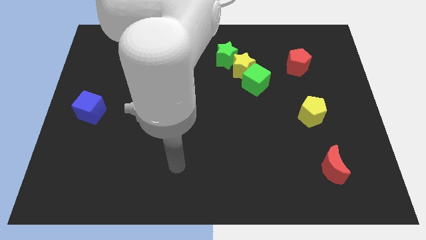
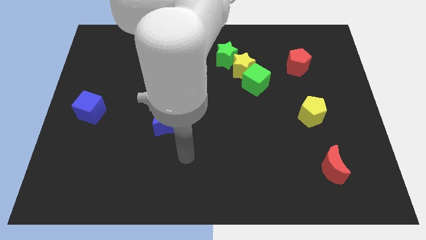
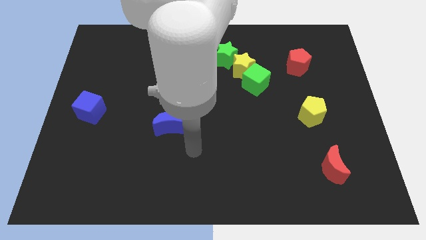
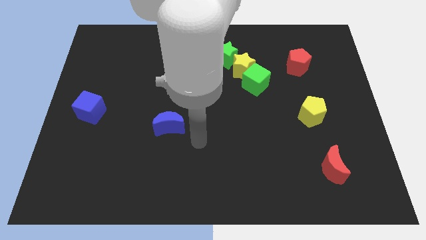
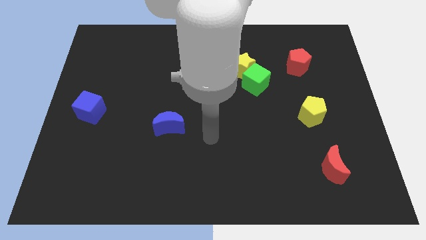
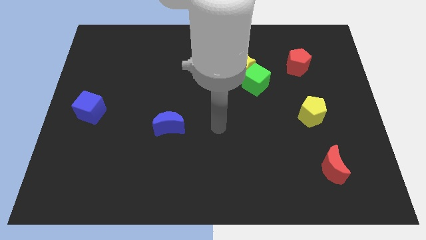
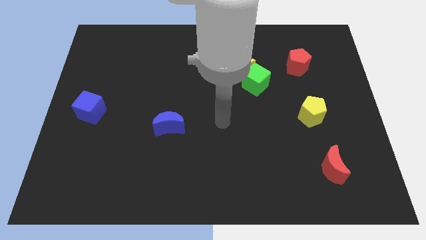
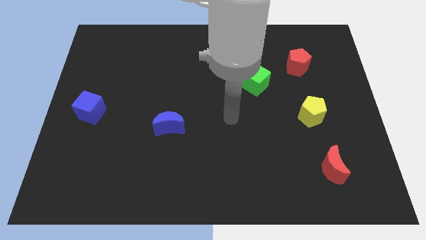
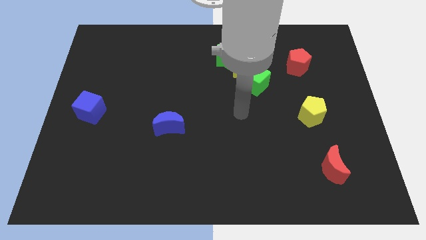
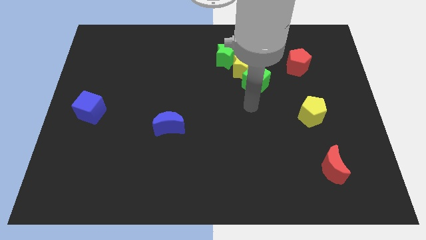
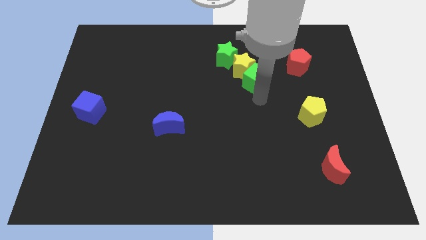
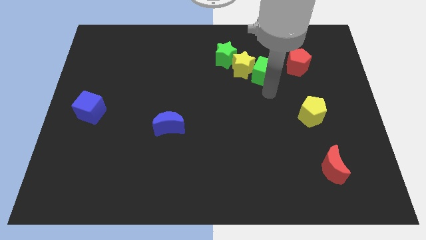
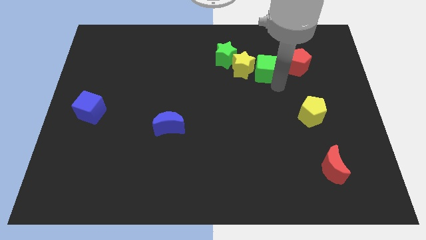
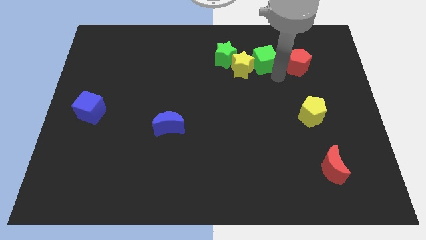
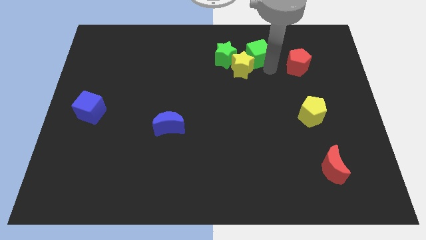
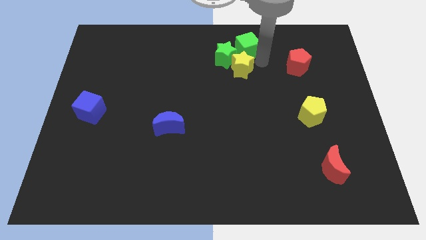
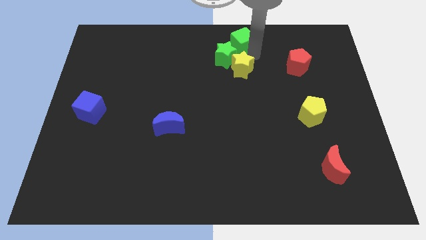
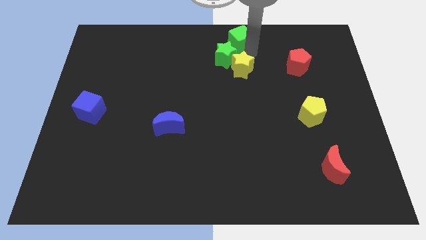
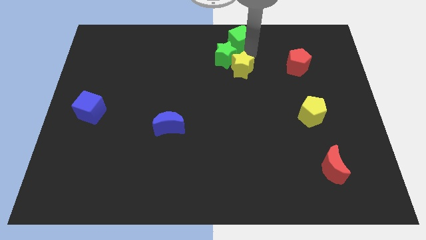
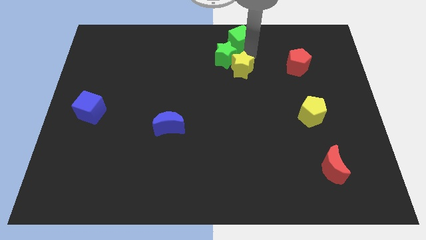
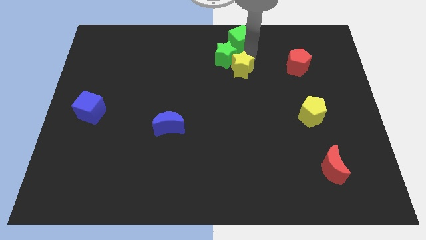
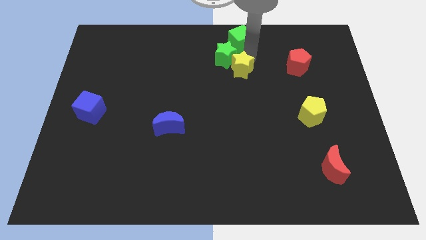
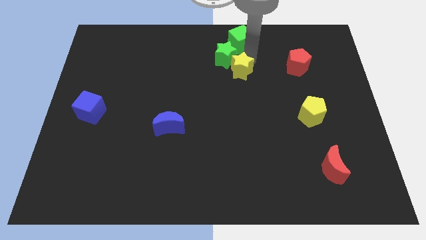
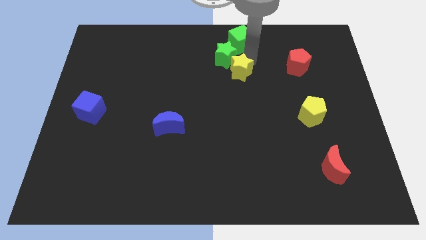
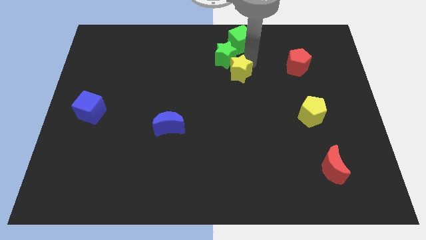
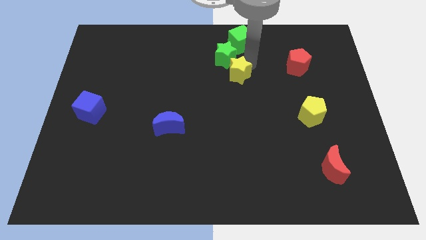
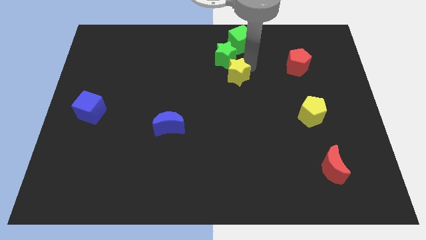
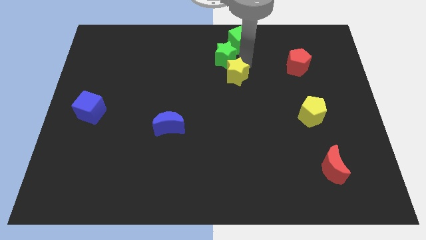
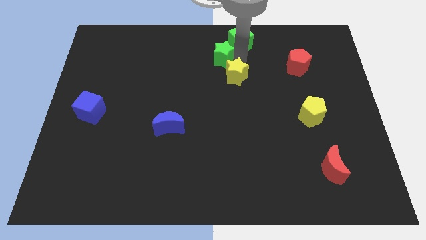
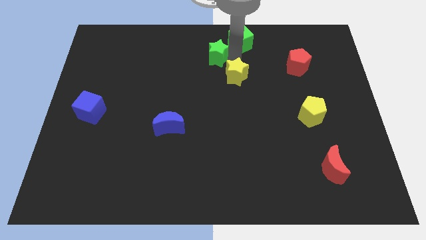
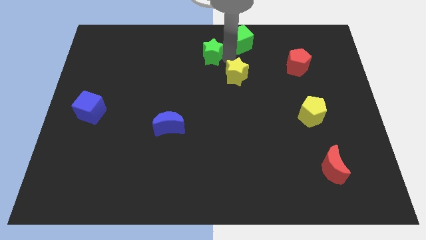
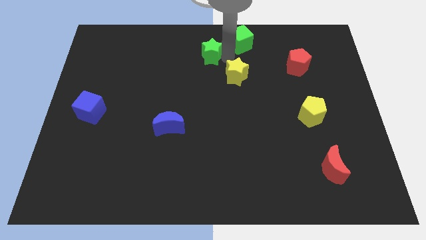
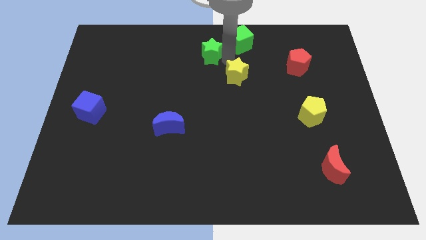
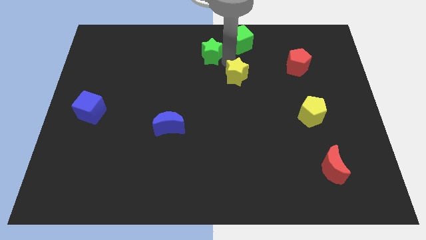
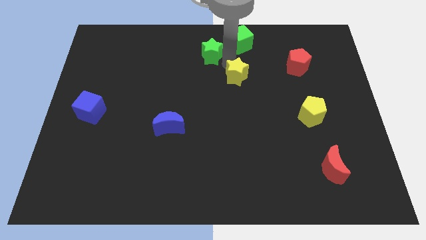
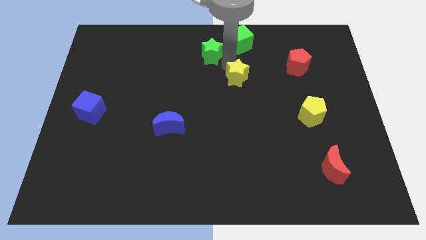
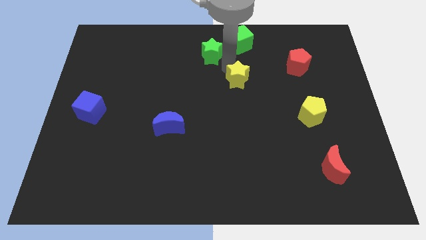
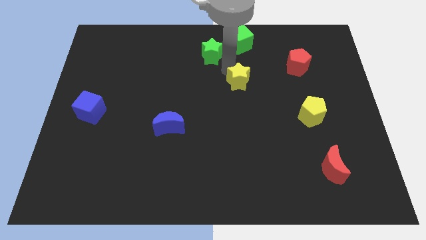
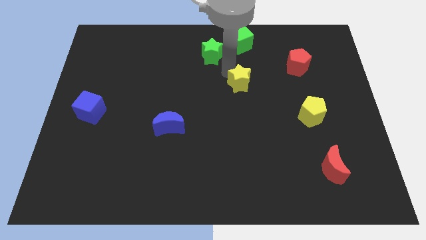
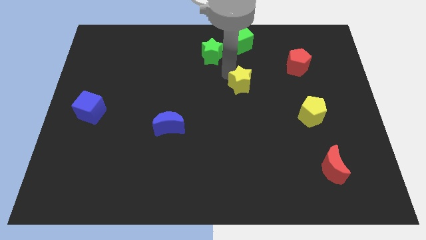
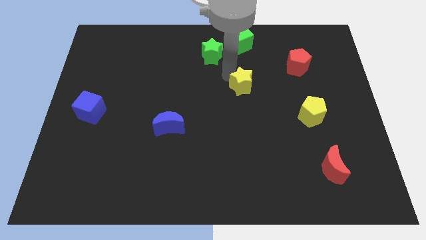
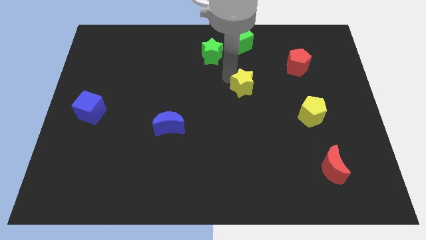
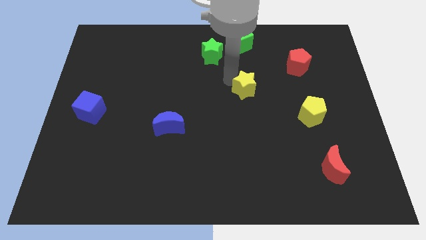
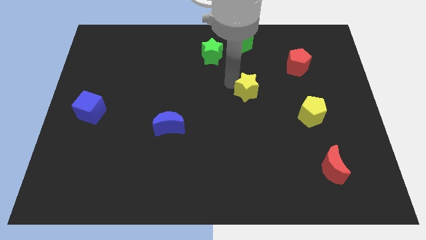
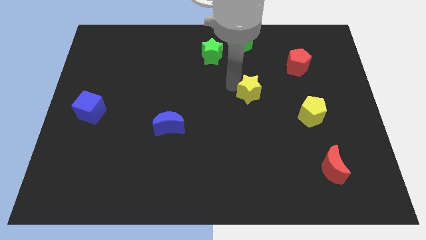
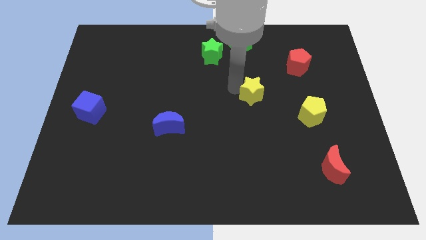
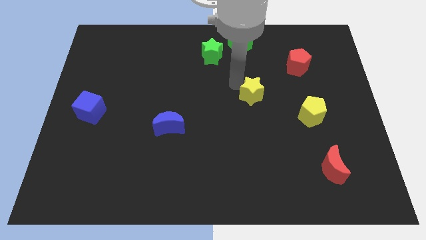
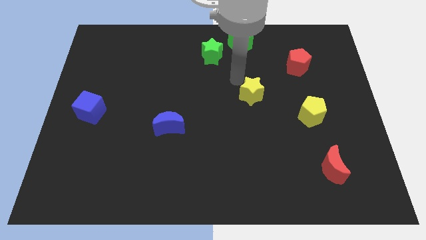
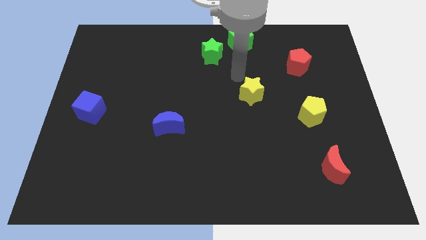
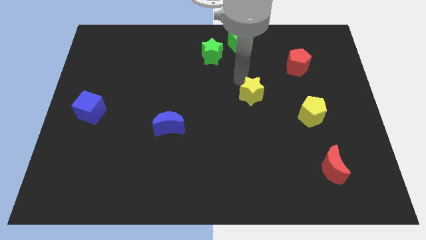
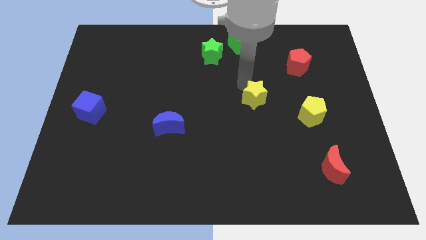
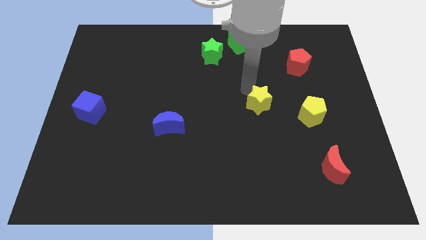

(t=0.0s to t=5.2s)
move the yellow star left of the yellow pentagon

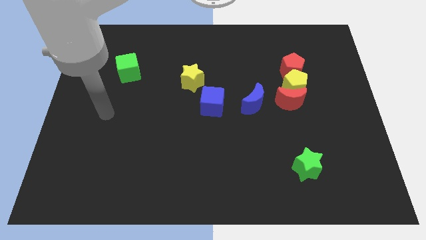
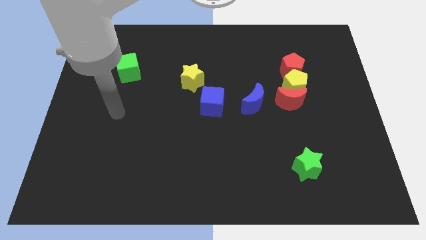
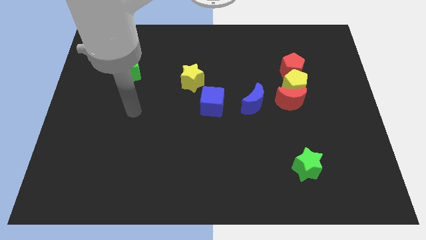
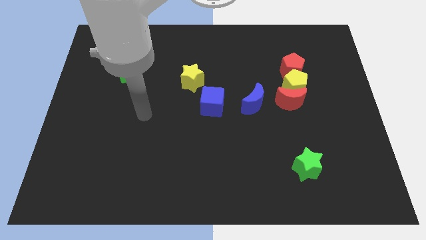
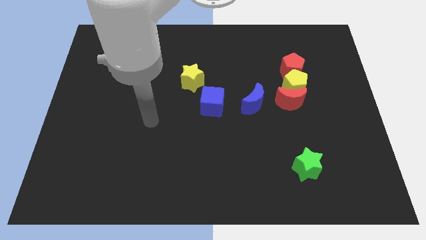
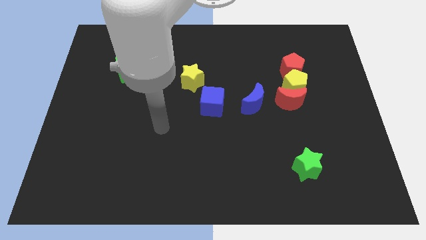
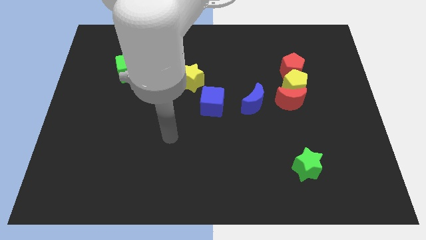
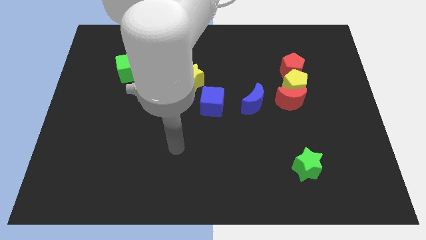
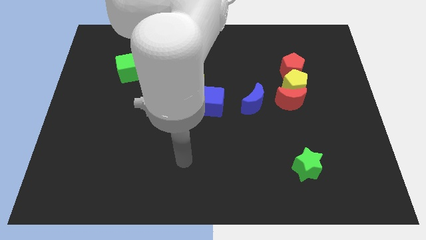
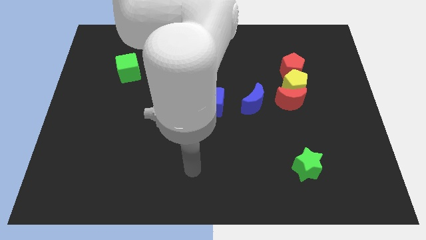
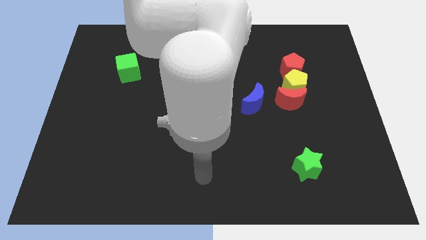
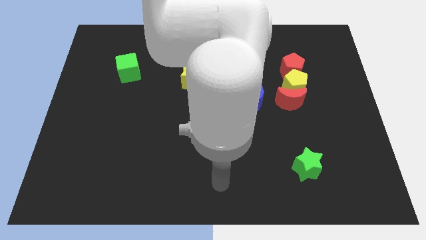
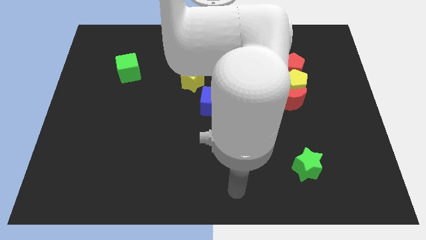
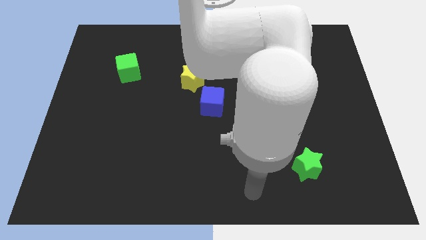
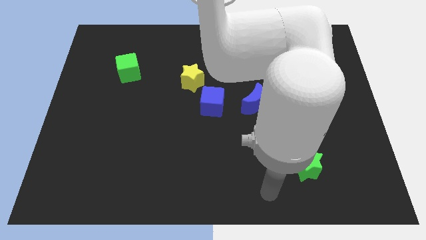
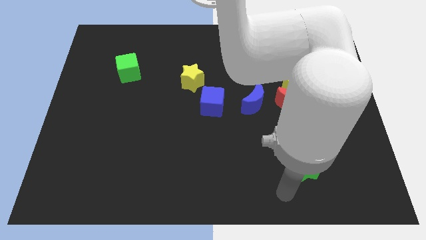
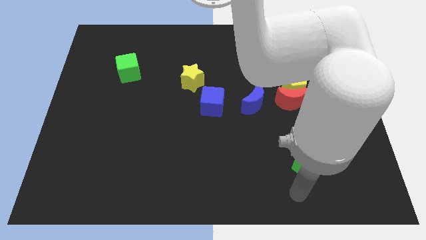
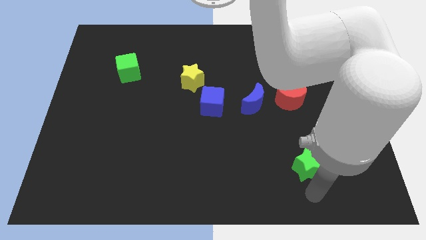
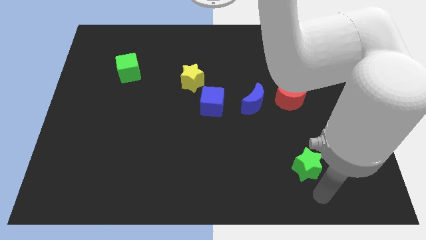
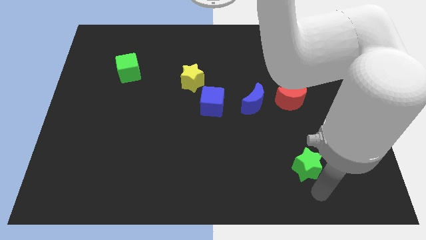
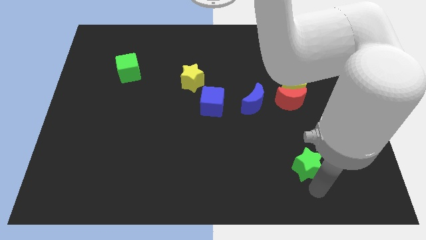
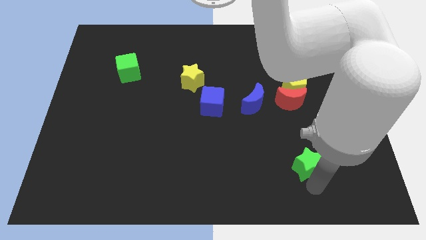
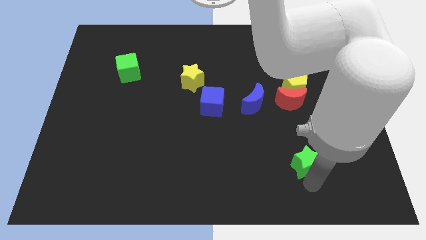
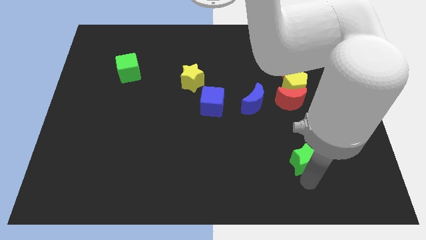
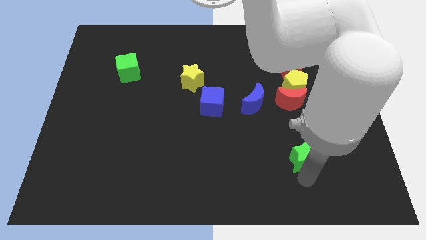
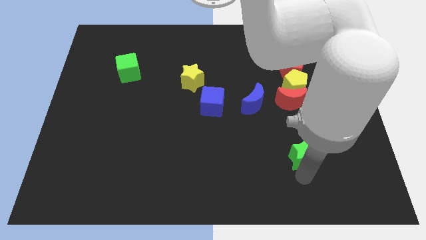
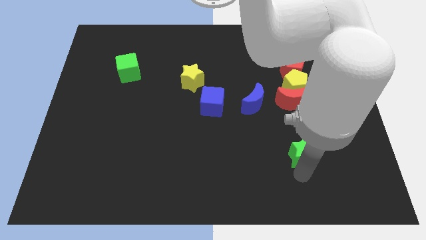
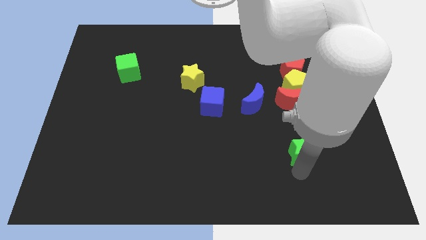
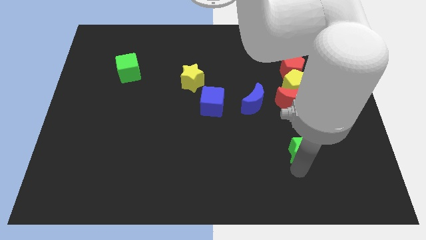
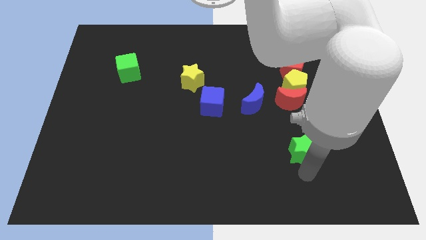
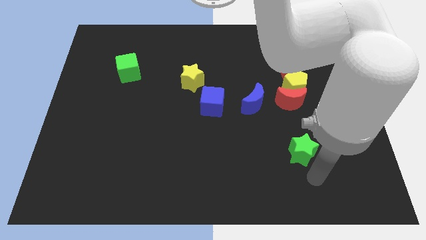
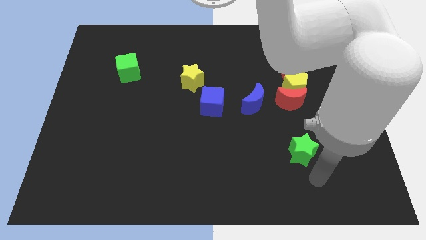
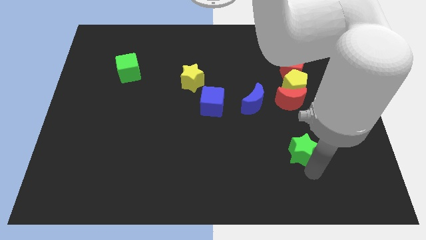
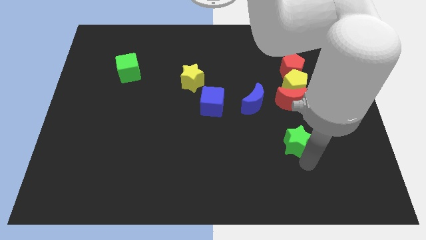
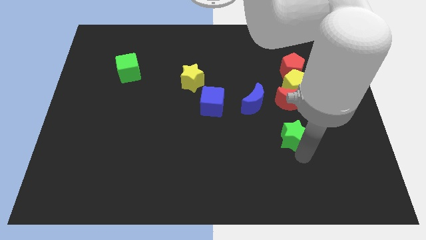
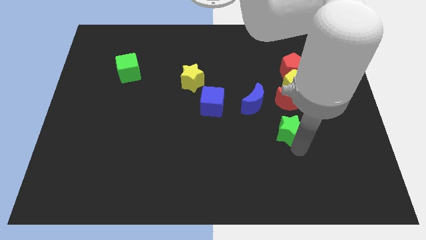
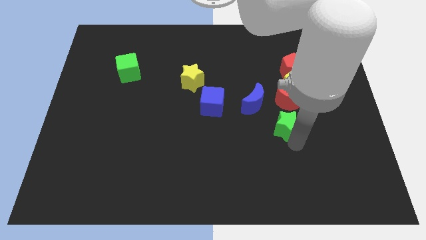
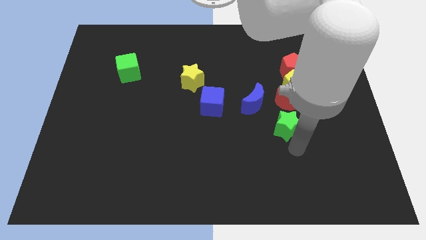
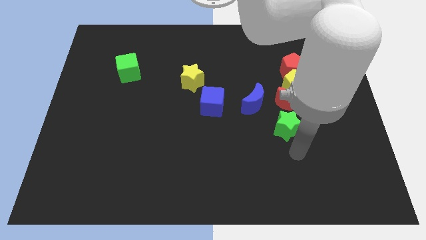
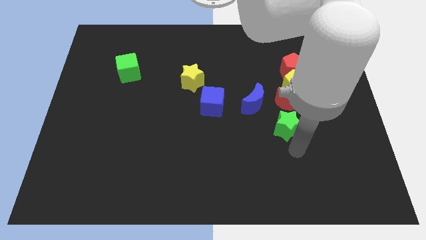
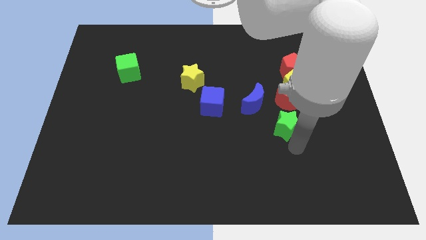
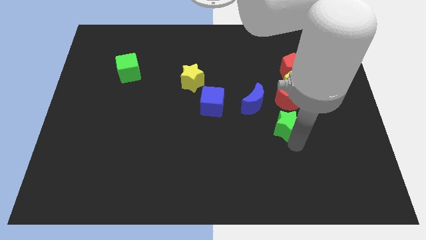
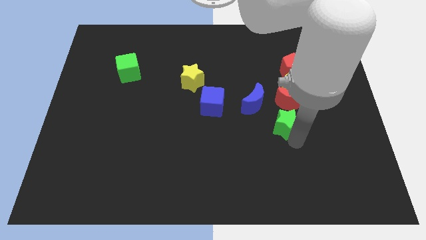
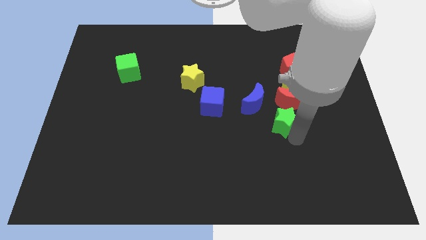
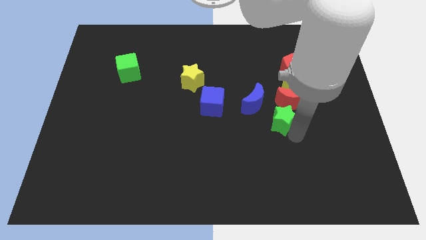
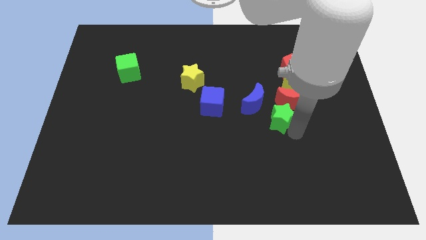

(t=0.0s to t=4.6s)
put the green star to the bottom left of the yellow pentagon
